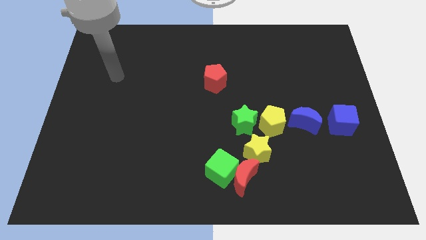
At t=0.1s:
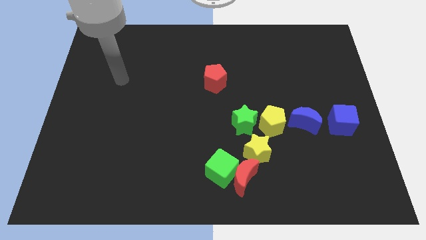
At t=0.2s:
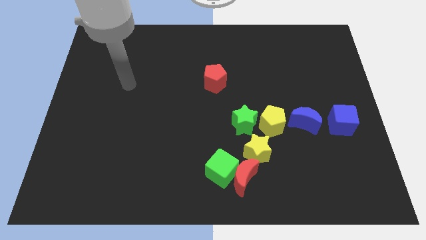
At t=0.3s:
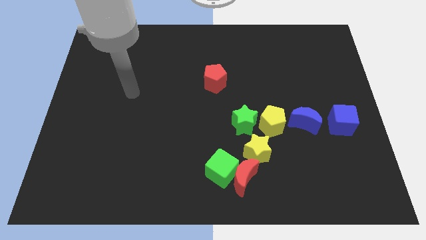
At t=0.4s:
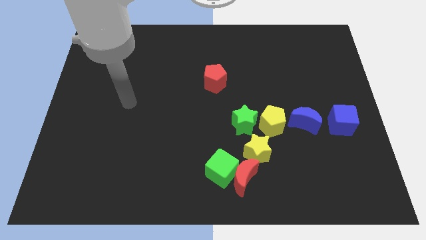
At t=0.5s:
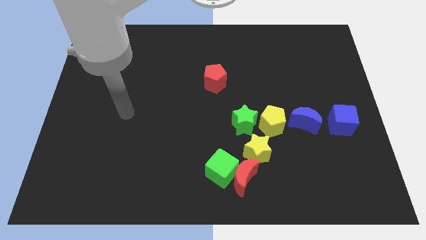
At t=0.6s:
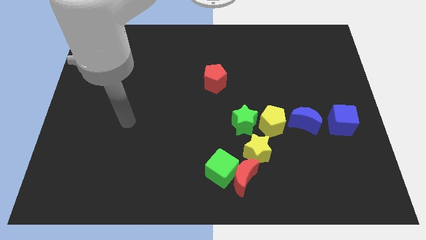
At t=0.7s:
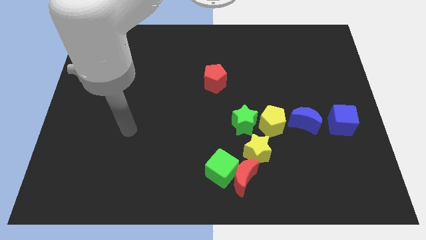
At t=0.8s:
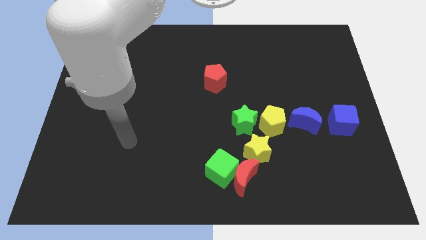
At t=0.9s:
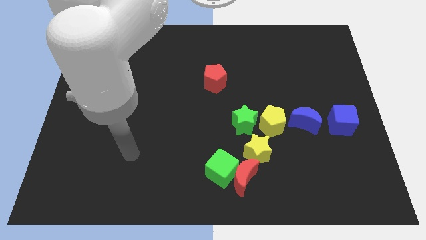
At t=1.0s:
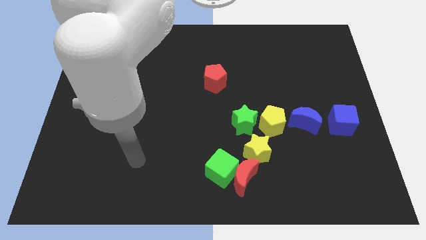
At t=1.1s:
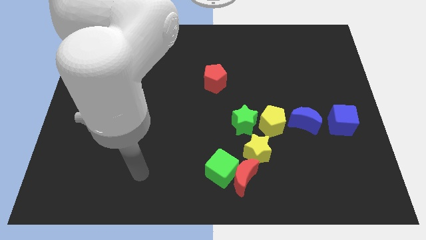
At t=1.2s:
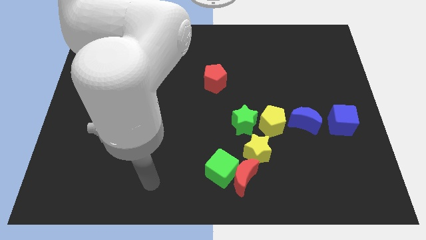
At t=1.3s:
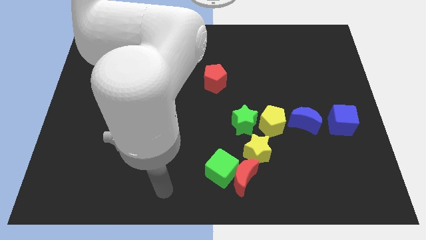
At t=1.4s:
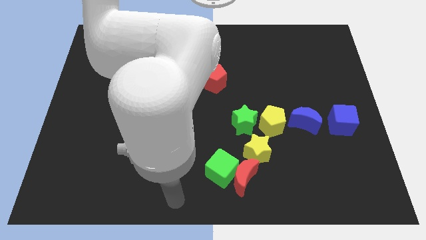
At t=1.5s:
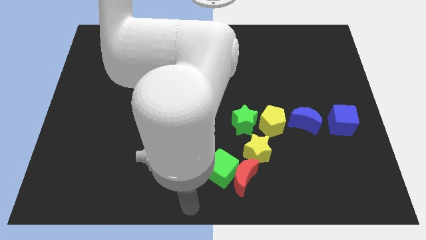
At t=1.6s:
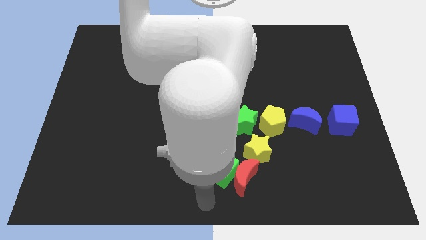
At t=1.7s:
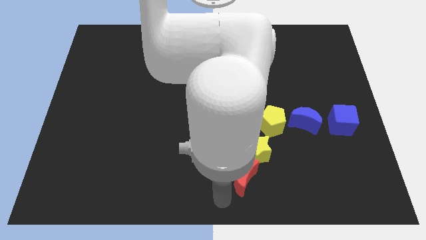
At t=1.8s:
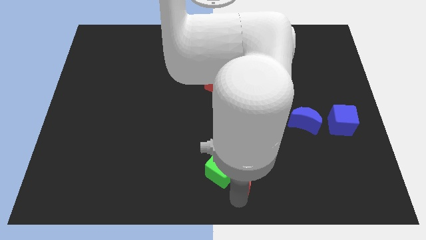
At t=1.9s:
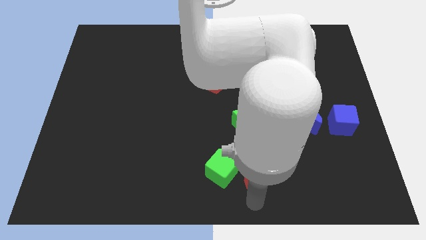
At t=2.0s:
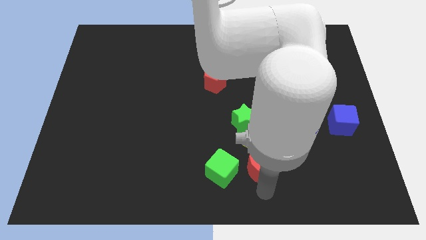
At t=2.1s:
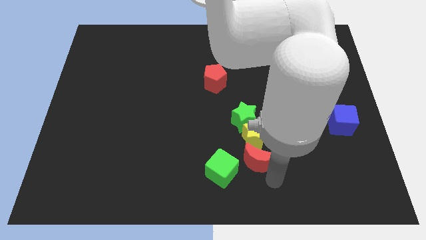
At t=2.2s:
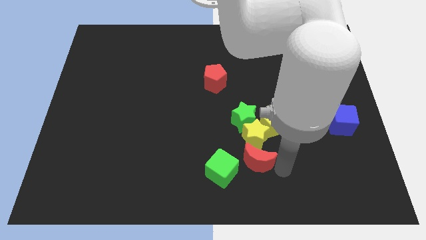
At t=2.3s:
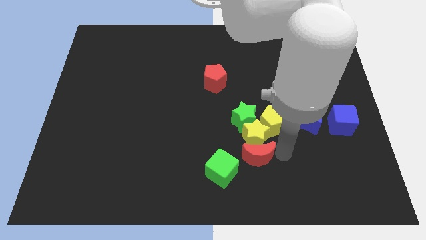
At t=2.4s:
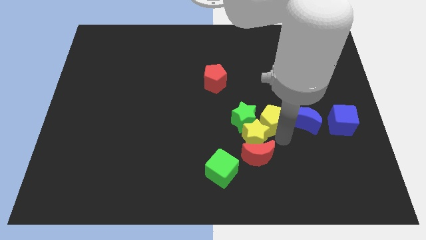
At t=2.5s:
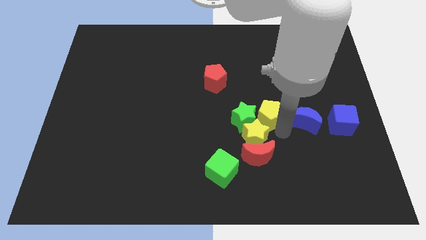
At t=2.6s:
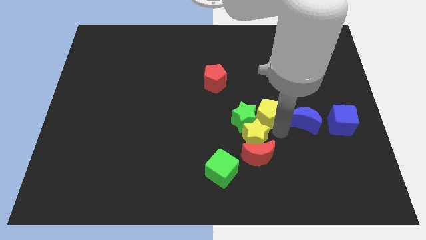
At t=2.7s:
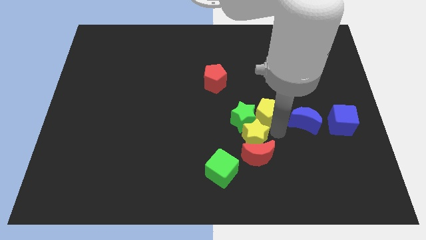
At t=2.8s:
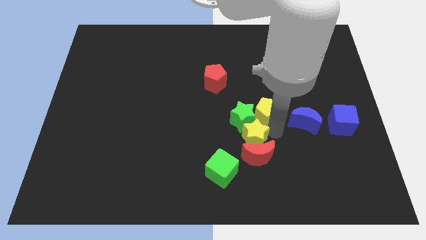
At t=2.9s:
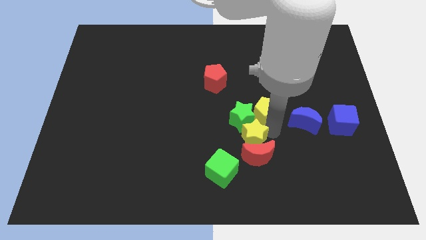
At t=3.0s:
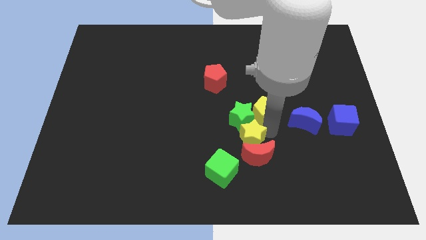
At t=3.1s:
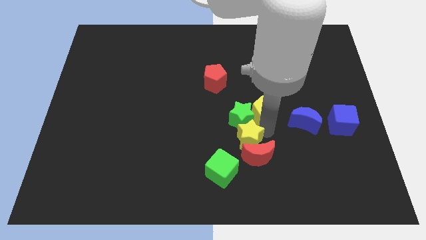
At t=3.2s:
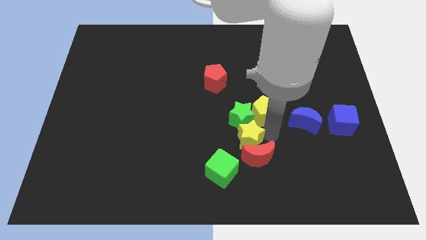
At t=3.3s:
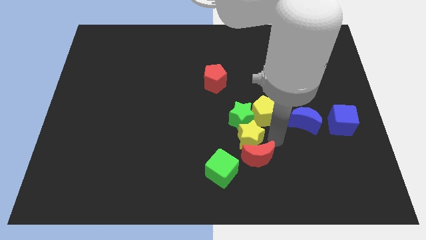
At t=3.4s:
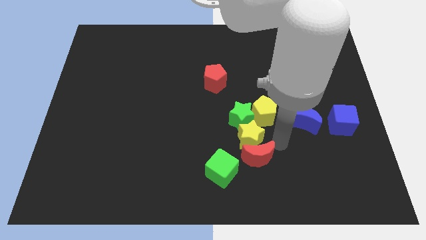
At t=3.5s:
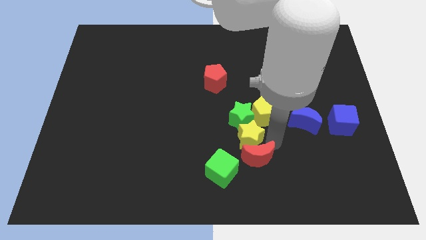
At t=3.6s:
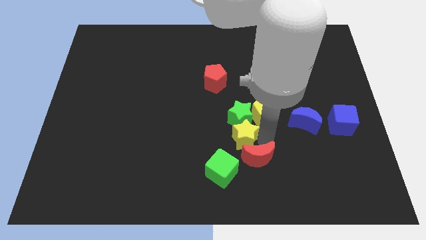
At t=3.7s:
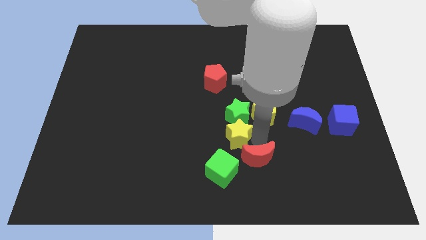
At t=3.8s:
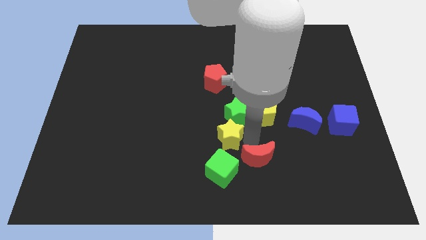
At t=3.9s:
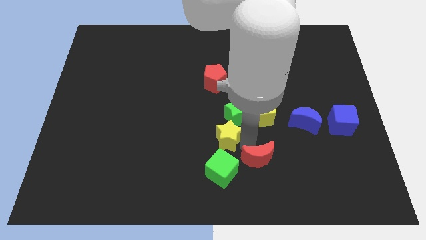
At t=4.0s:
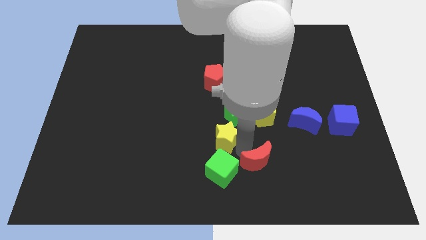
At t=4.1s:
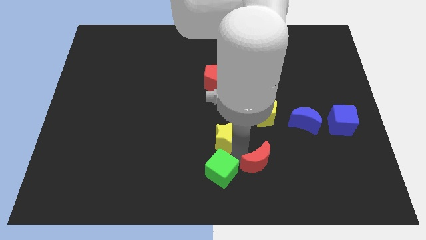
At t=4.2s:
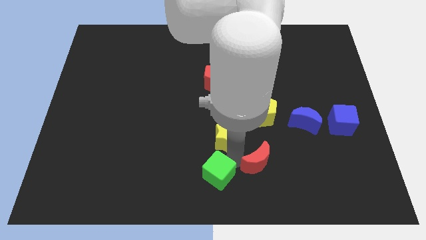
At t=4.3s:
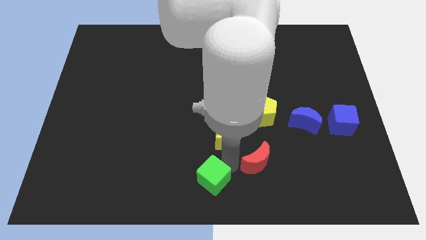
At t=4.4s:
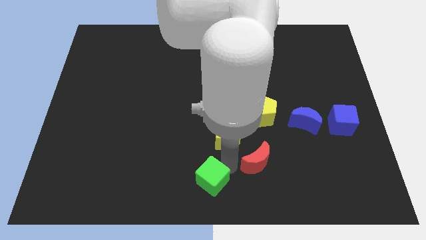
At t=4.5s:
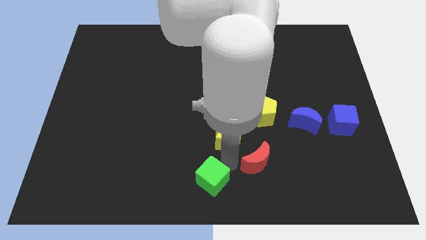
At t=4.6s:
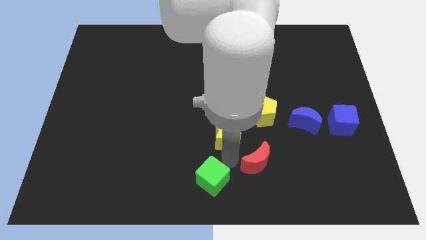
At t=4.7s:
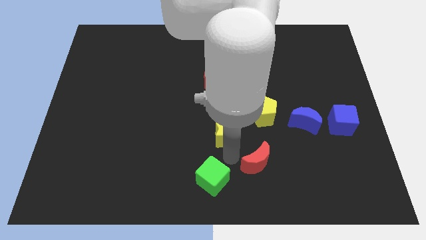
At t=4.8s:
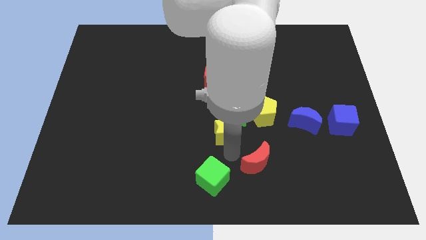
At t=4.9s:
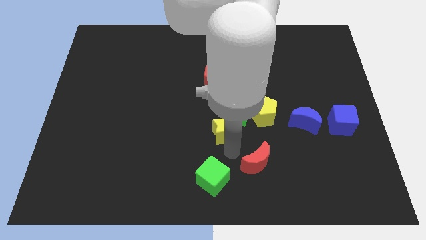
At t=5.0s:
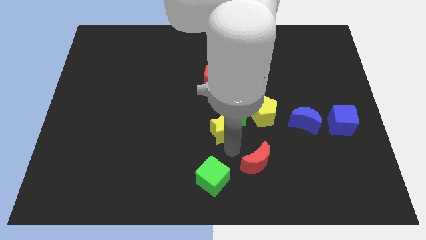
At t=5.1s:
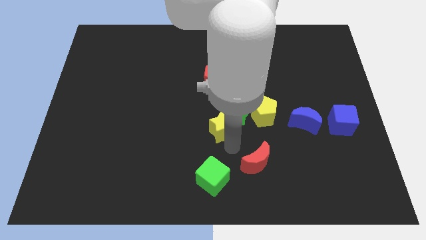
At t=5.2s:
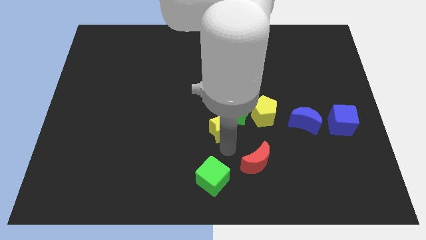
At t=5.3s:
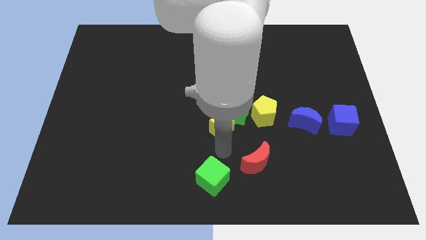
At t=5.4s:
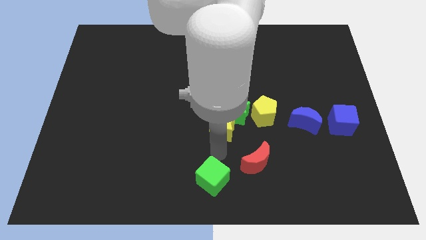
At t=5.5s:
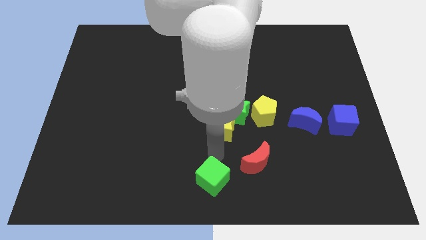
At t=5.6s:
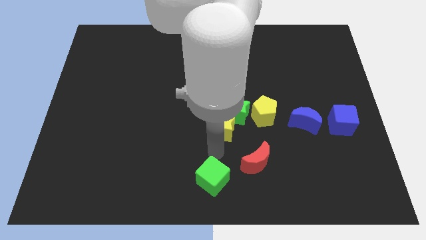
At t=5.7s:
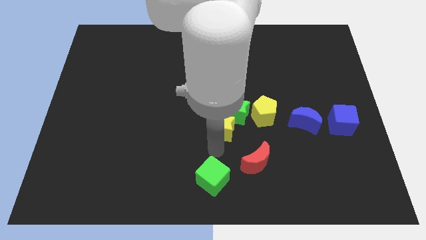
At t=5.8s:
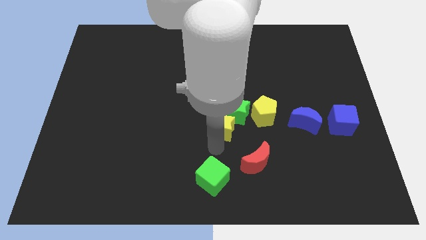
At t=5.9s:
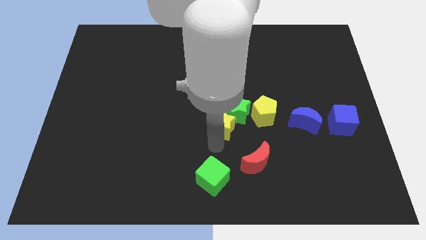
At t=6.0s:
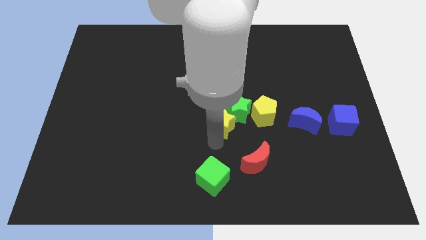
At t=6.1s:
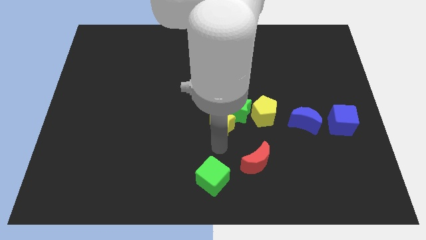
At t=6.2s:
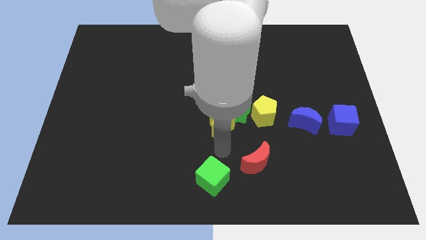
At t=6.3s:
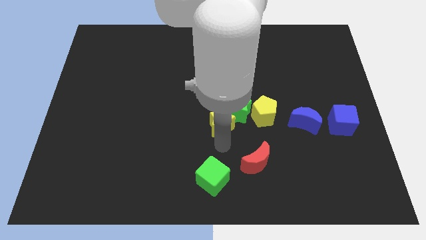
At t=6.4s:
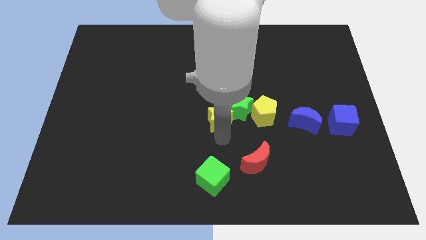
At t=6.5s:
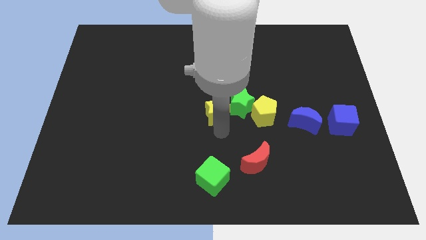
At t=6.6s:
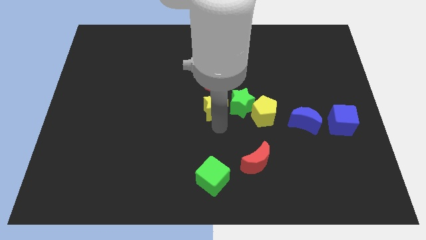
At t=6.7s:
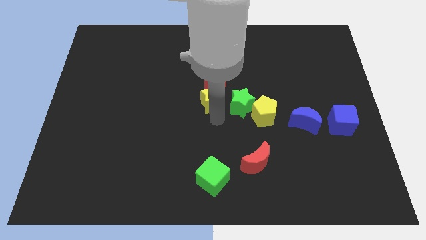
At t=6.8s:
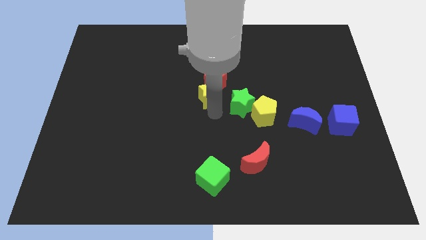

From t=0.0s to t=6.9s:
put the yellow star close to the red pentagon
